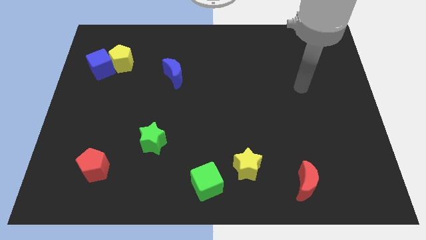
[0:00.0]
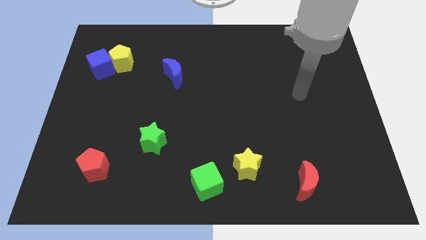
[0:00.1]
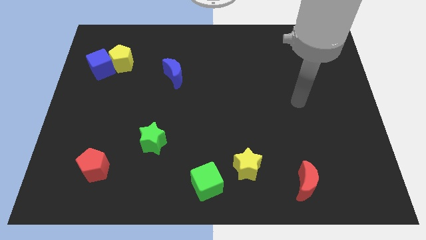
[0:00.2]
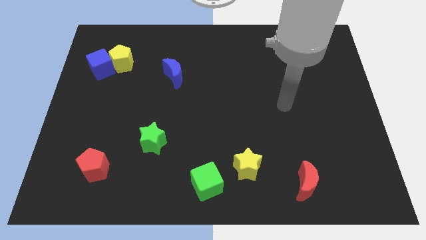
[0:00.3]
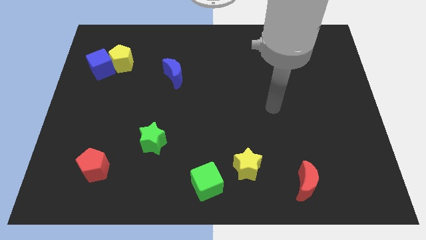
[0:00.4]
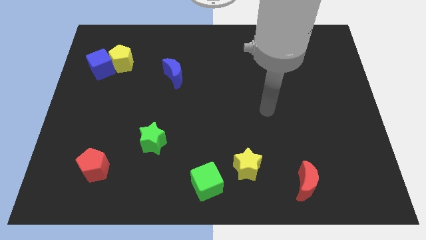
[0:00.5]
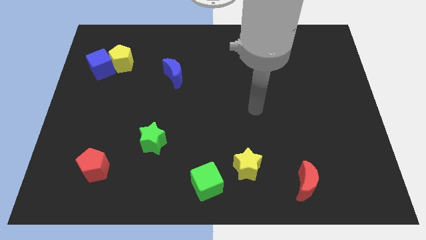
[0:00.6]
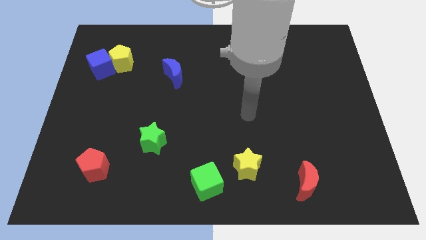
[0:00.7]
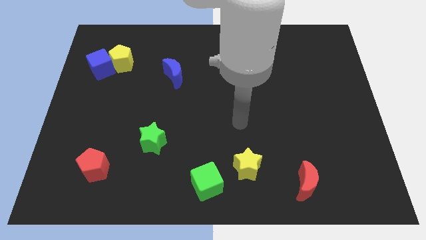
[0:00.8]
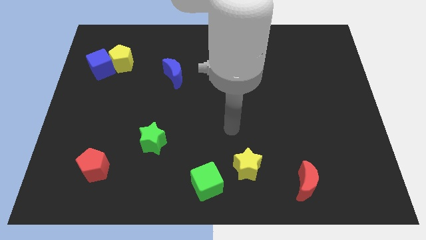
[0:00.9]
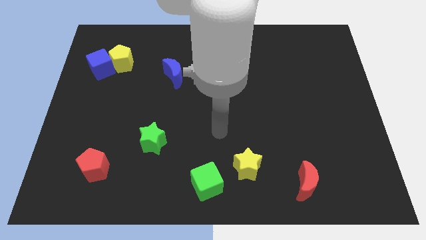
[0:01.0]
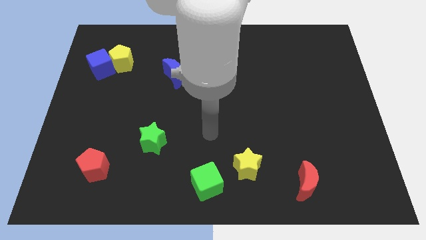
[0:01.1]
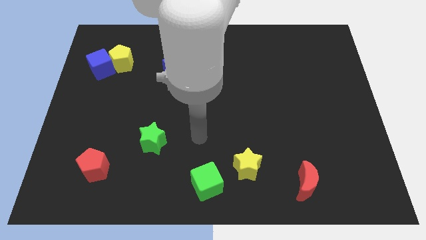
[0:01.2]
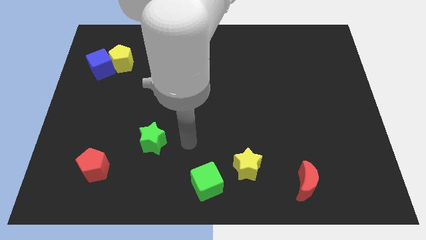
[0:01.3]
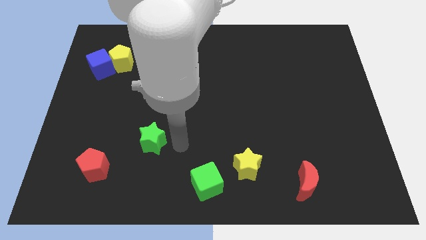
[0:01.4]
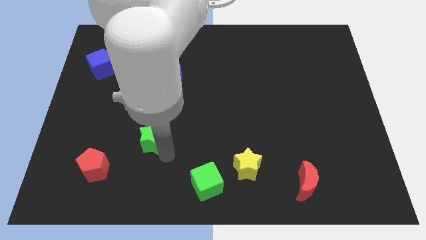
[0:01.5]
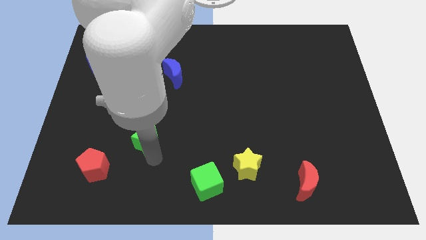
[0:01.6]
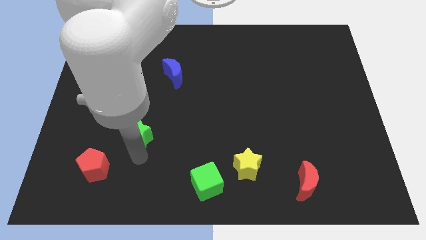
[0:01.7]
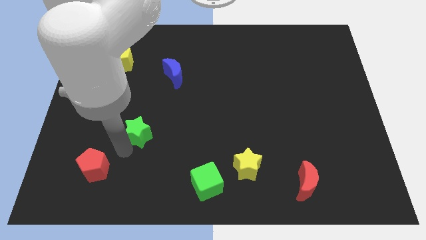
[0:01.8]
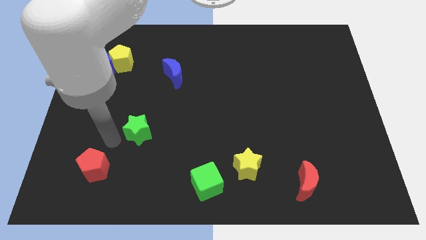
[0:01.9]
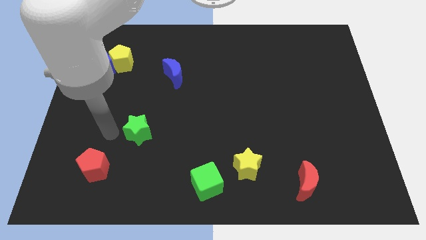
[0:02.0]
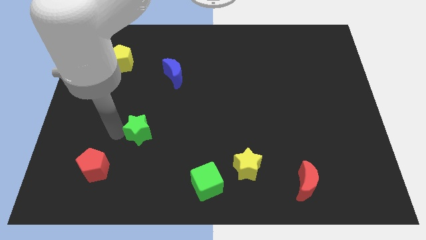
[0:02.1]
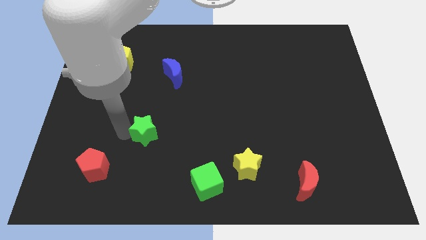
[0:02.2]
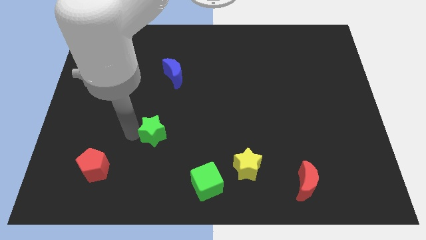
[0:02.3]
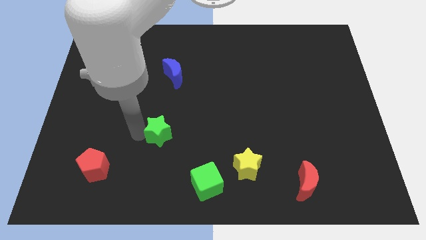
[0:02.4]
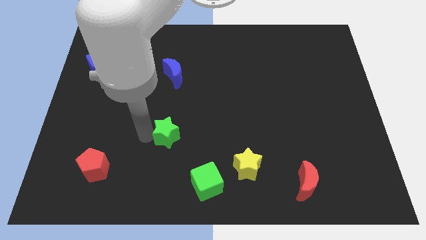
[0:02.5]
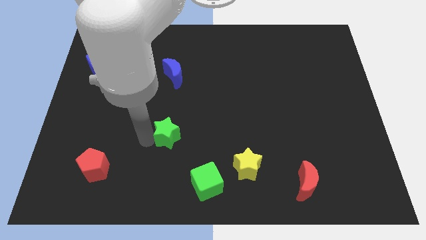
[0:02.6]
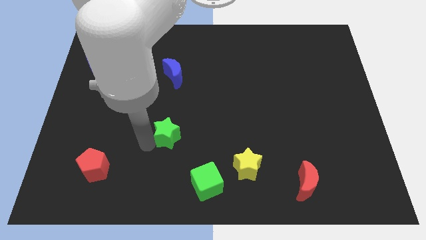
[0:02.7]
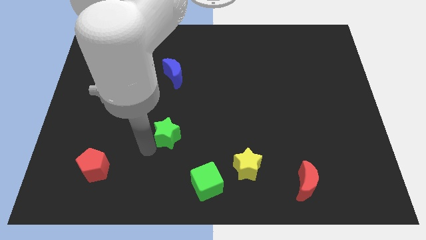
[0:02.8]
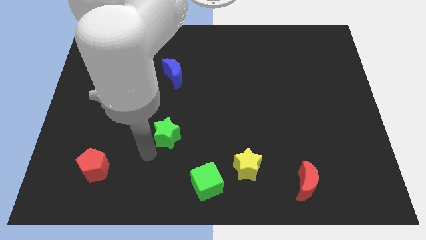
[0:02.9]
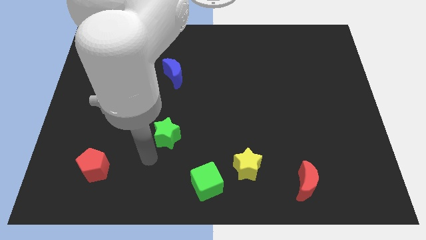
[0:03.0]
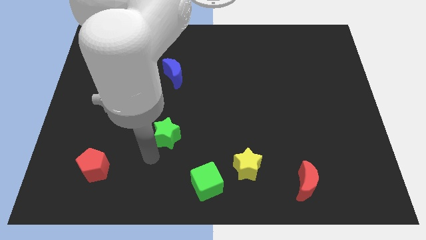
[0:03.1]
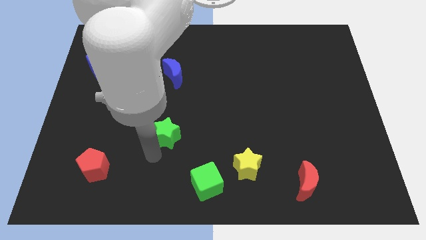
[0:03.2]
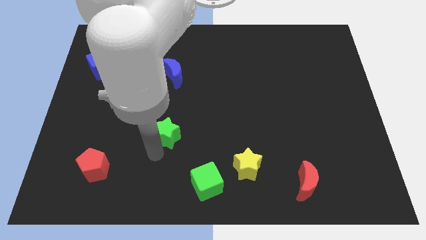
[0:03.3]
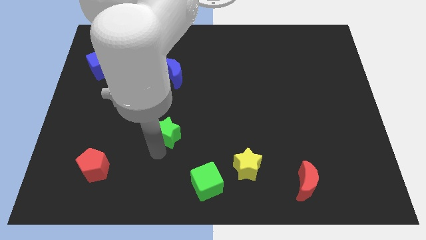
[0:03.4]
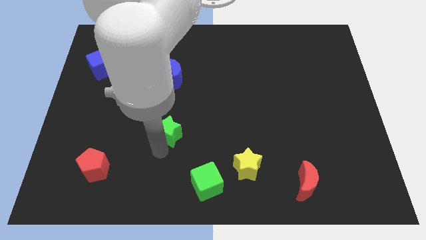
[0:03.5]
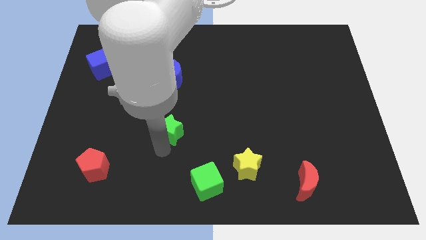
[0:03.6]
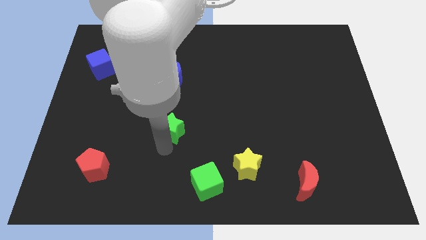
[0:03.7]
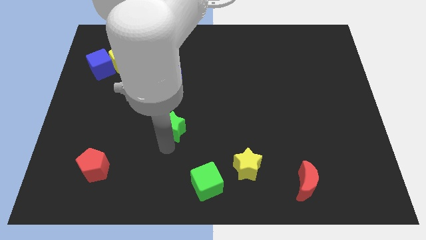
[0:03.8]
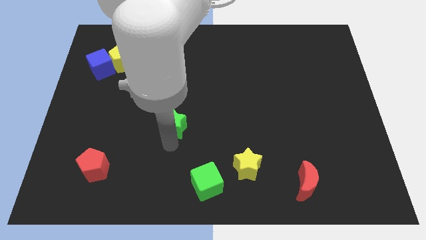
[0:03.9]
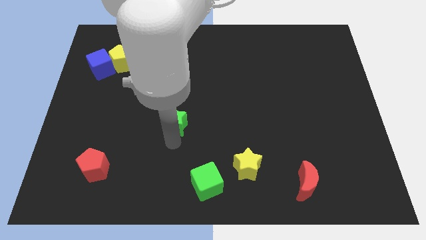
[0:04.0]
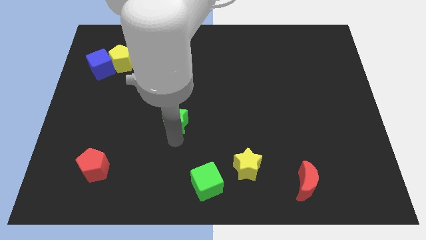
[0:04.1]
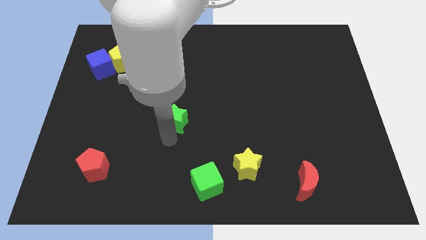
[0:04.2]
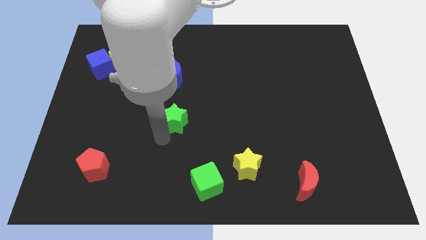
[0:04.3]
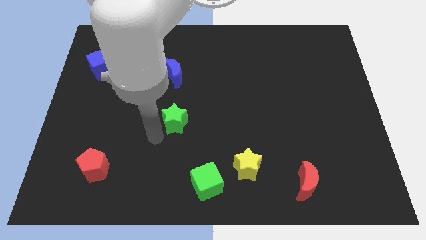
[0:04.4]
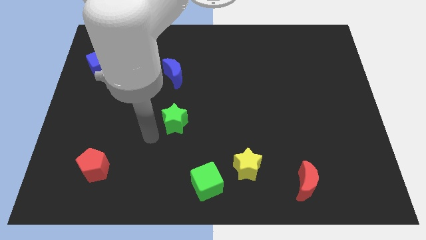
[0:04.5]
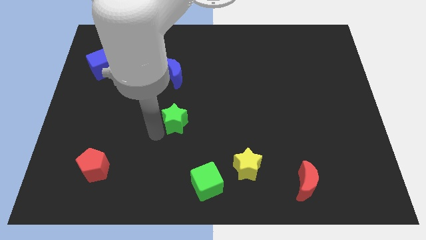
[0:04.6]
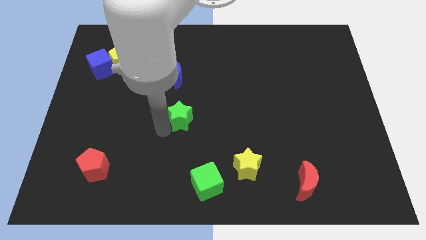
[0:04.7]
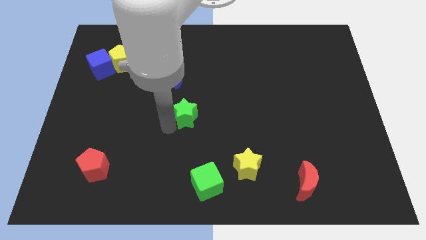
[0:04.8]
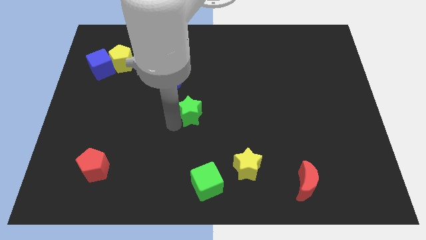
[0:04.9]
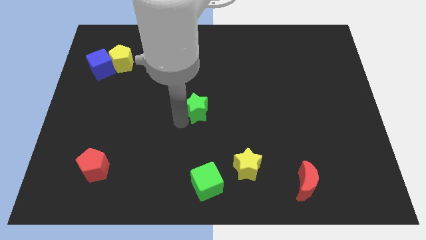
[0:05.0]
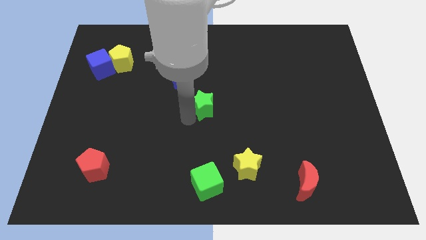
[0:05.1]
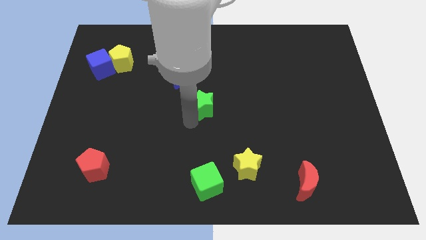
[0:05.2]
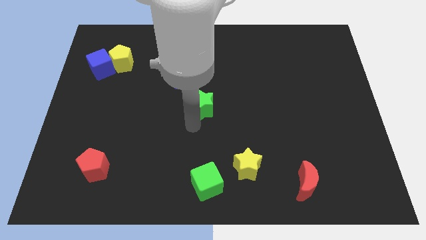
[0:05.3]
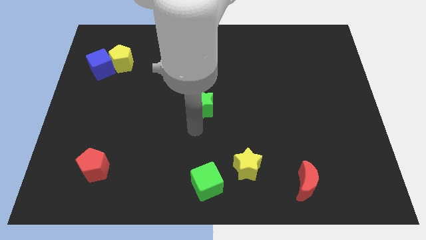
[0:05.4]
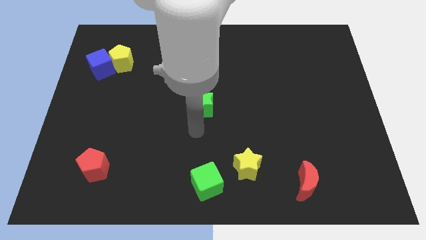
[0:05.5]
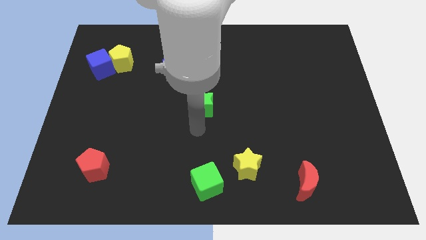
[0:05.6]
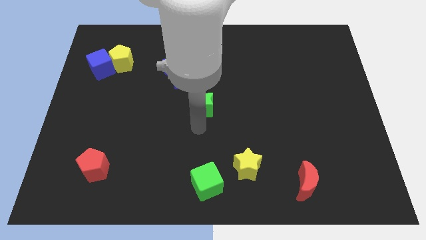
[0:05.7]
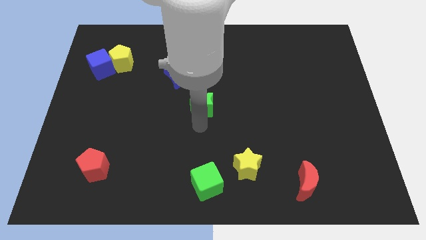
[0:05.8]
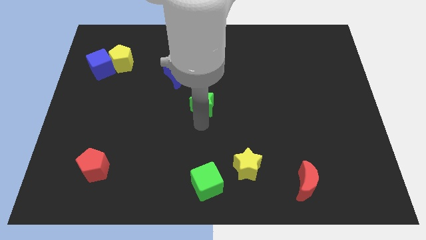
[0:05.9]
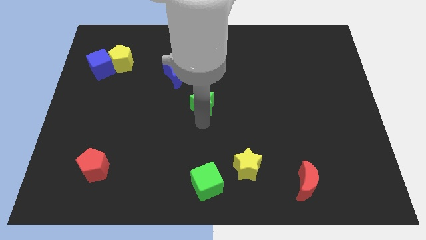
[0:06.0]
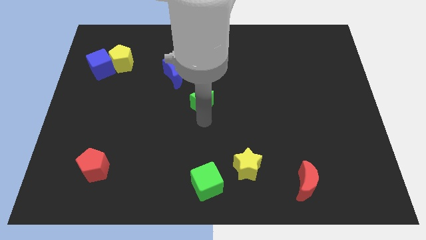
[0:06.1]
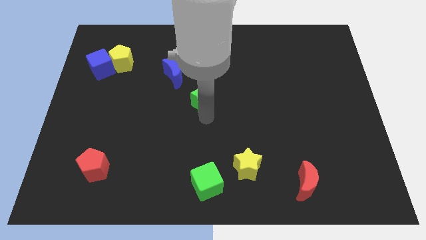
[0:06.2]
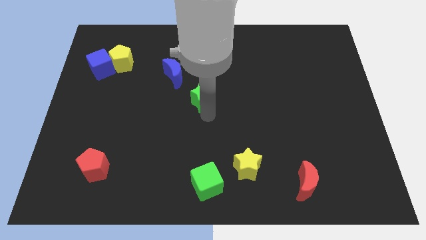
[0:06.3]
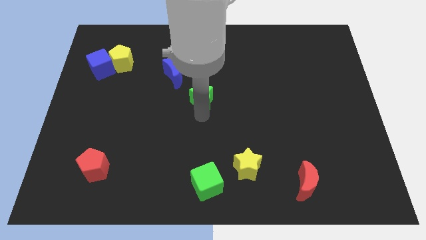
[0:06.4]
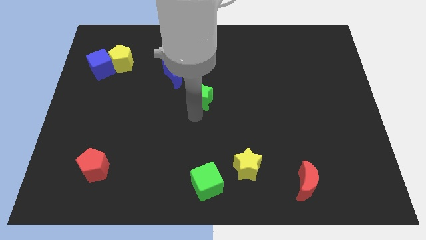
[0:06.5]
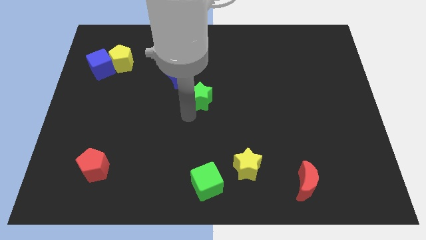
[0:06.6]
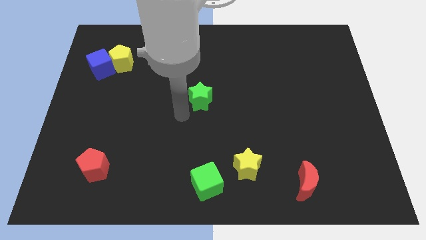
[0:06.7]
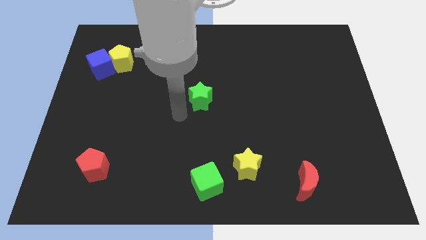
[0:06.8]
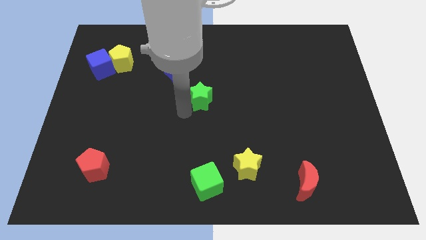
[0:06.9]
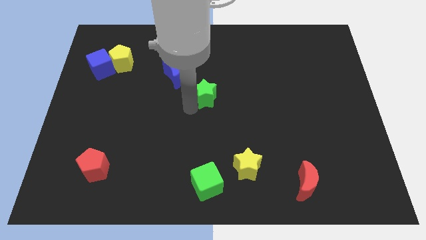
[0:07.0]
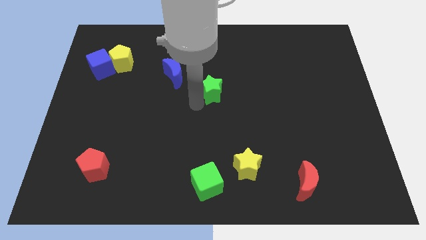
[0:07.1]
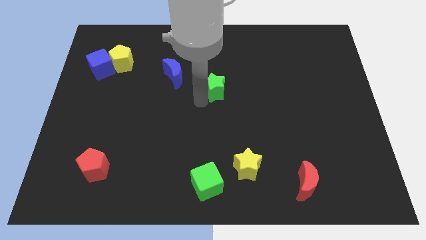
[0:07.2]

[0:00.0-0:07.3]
push the green star diagonally upwards and to the right

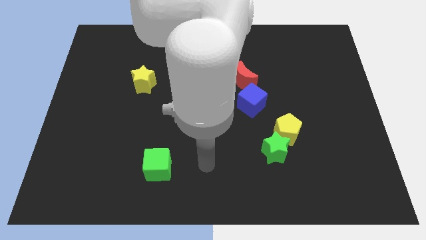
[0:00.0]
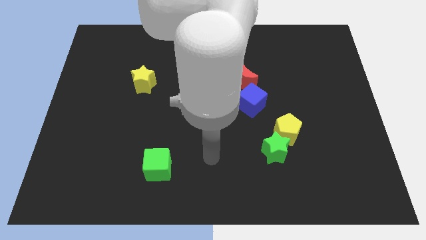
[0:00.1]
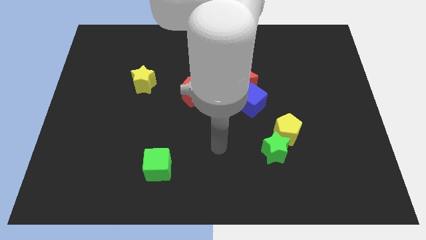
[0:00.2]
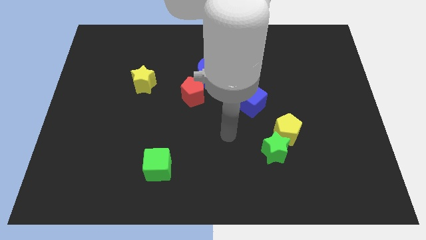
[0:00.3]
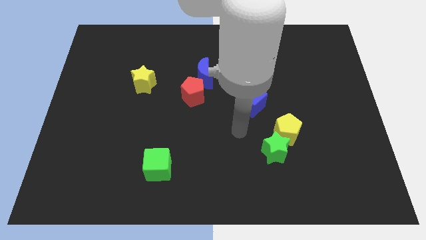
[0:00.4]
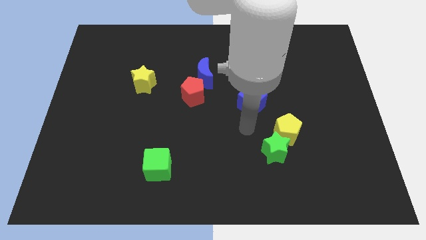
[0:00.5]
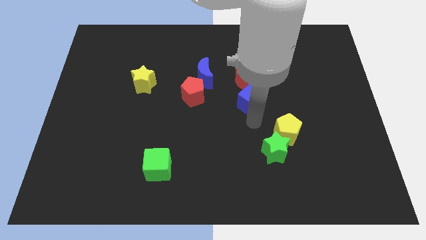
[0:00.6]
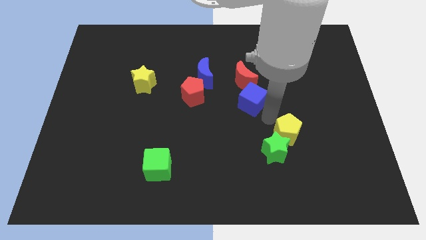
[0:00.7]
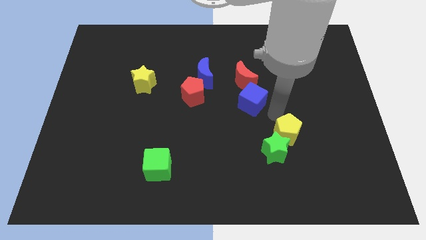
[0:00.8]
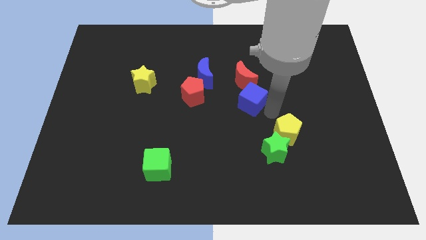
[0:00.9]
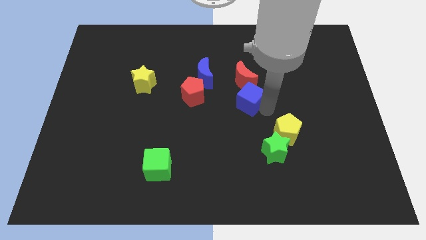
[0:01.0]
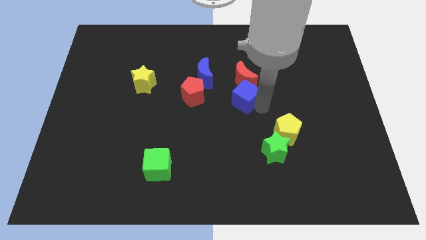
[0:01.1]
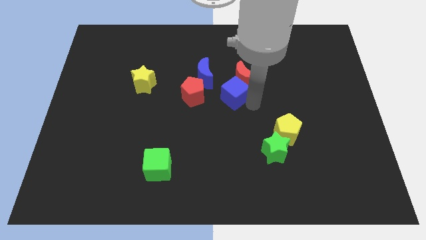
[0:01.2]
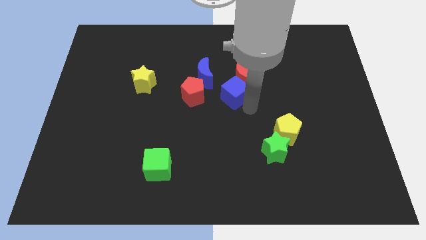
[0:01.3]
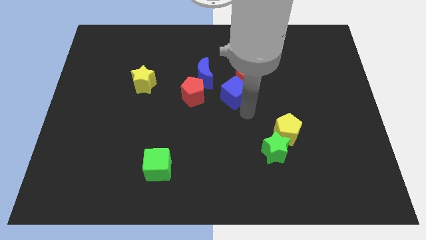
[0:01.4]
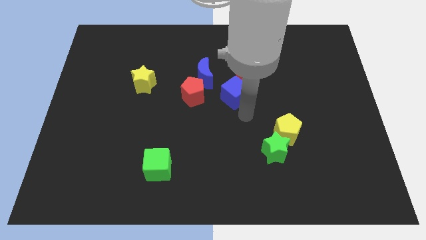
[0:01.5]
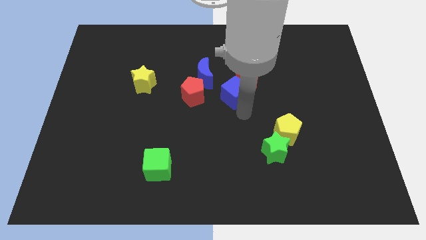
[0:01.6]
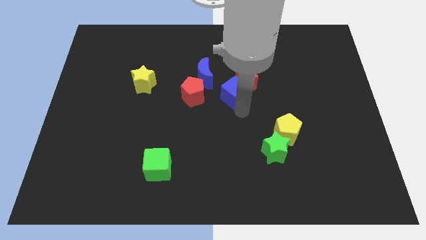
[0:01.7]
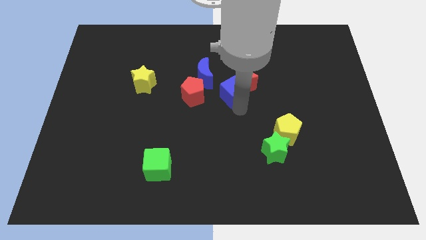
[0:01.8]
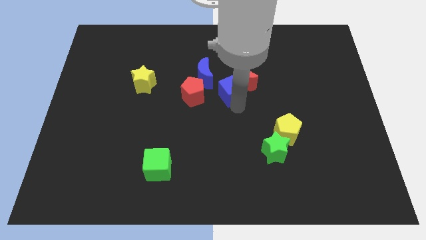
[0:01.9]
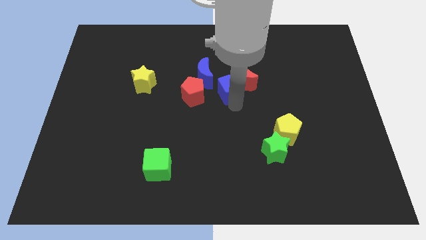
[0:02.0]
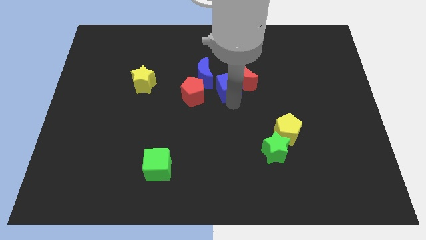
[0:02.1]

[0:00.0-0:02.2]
move the blue cube somewhat upwards and left
